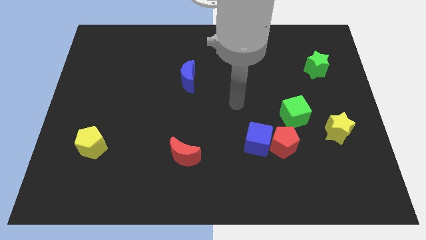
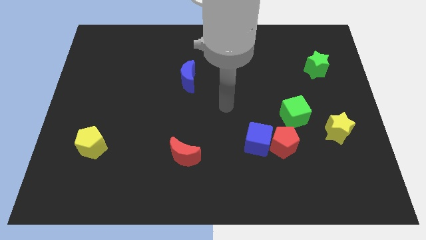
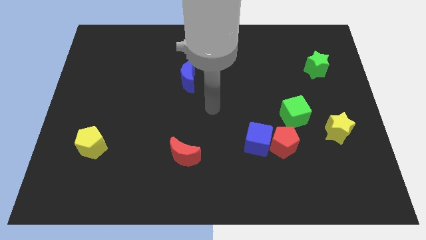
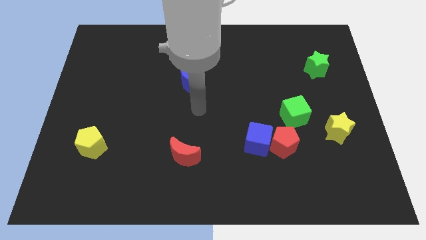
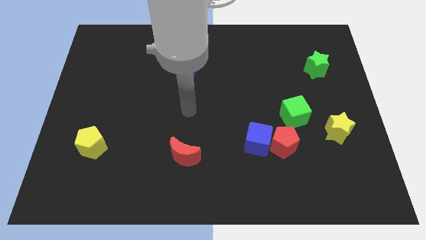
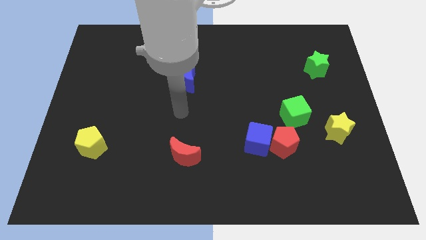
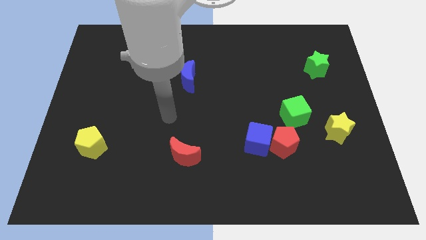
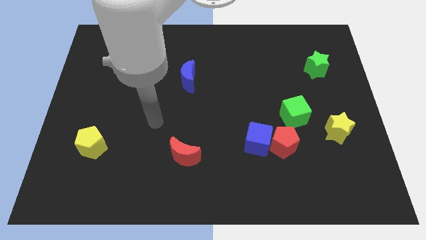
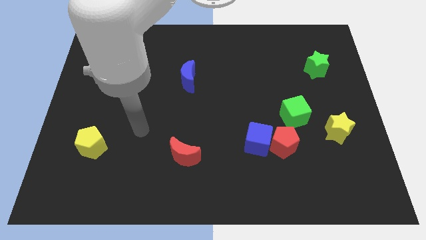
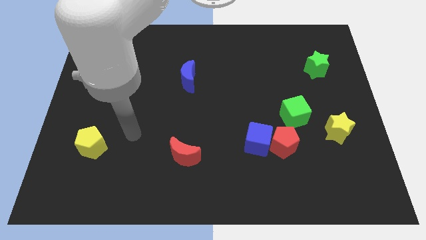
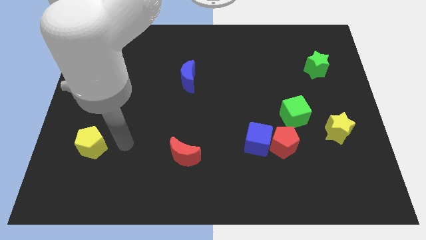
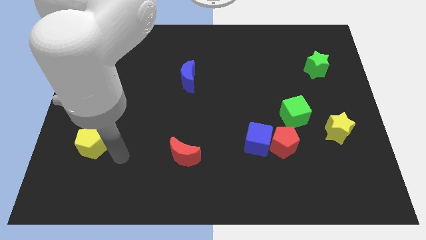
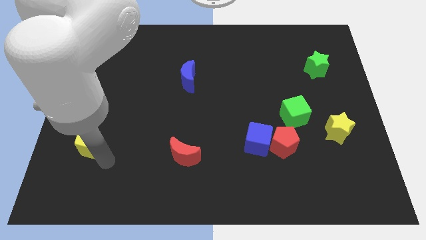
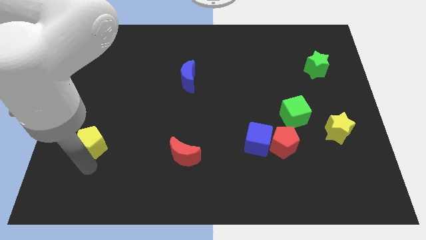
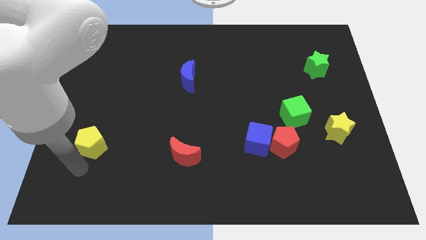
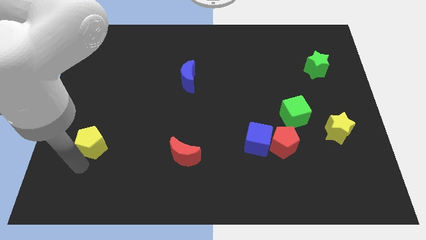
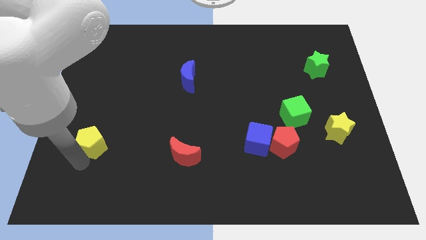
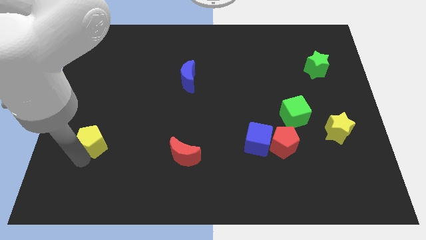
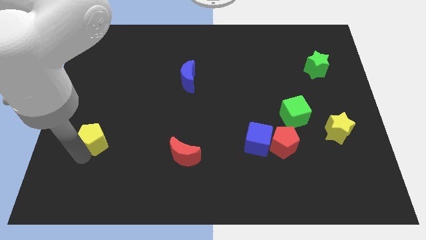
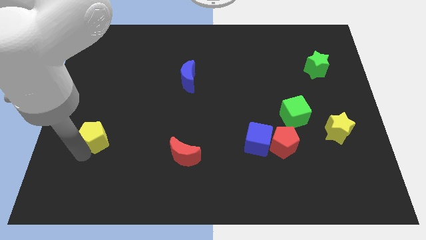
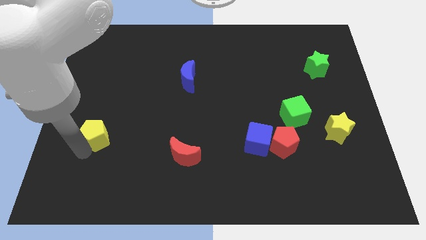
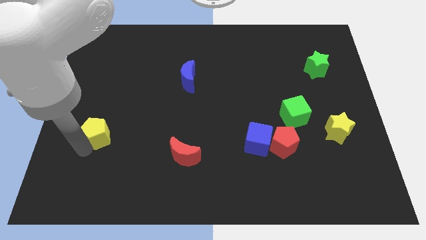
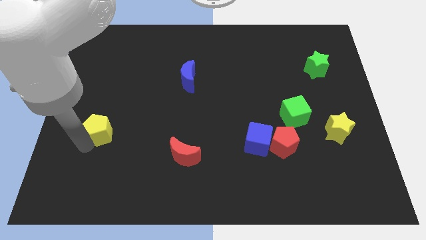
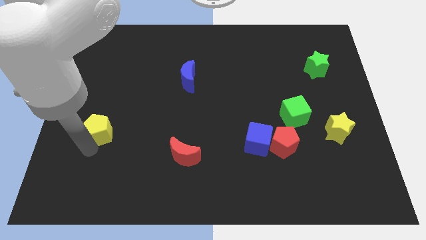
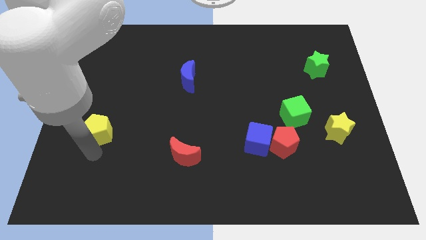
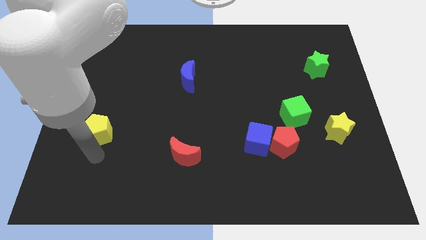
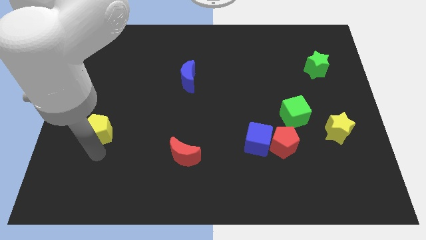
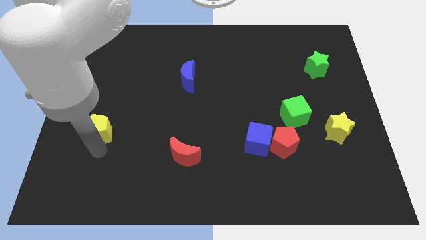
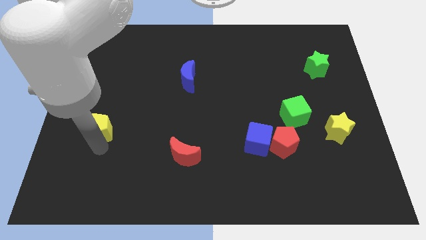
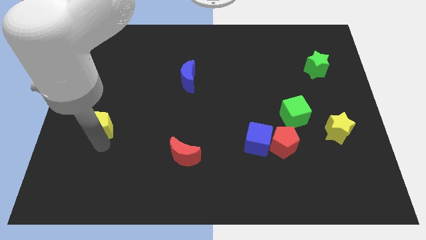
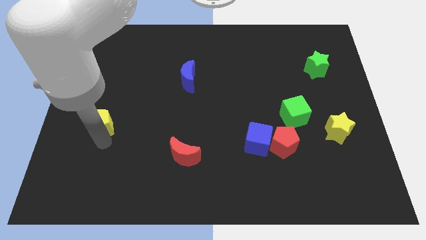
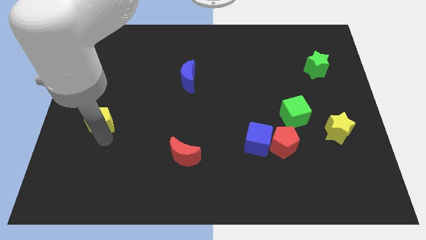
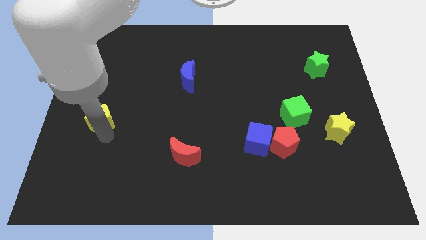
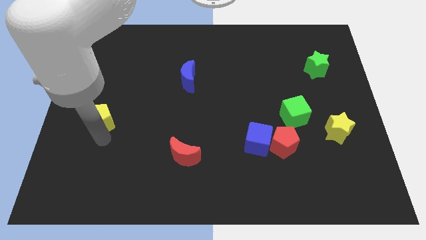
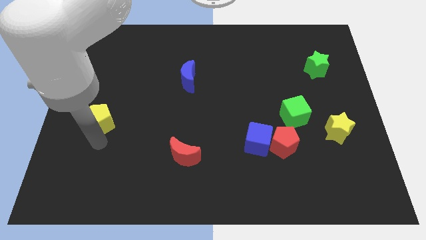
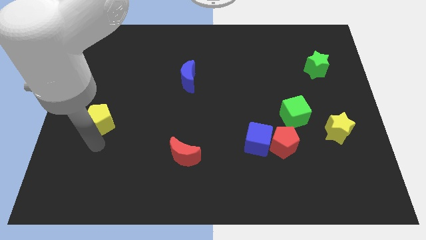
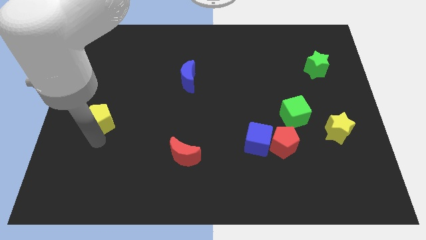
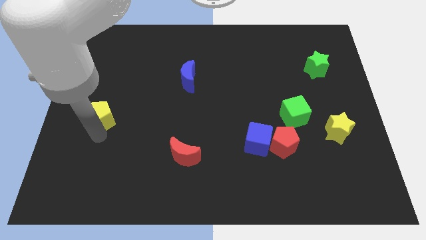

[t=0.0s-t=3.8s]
move the yellow pentagon a little upwards

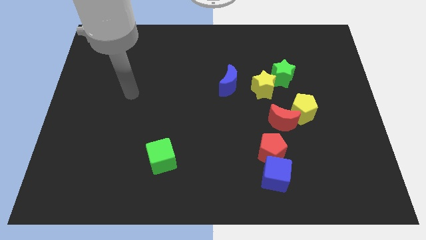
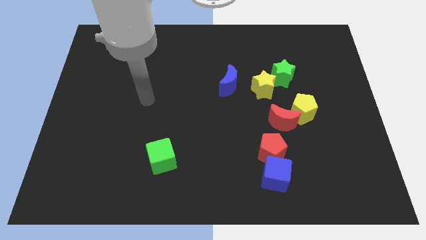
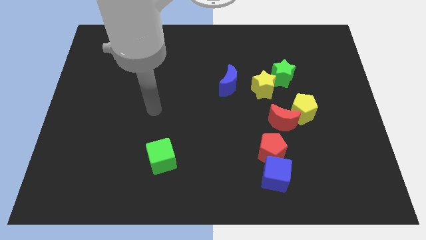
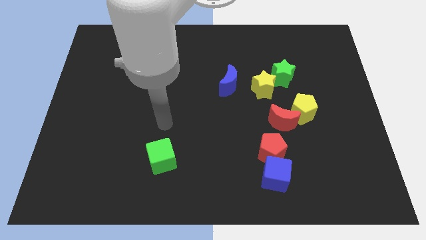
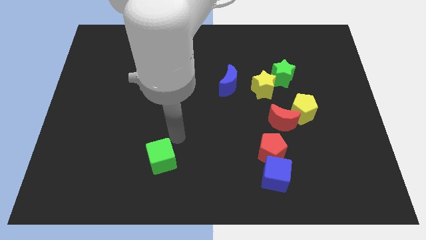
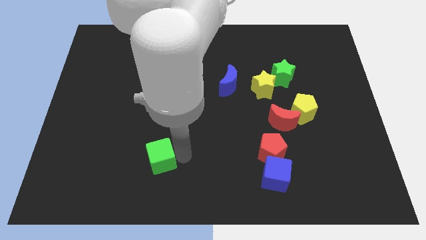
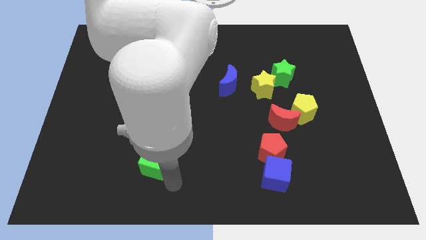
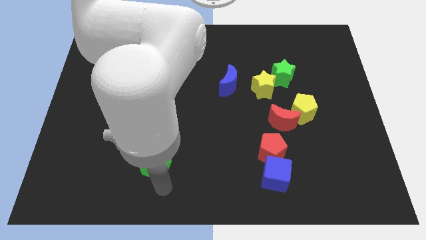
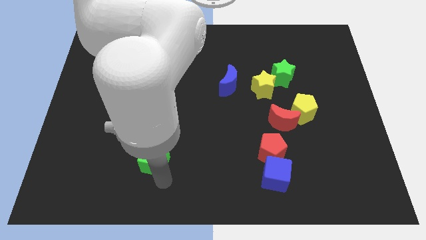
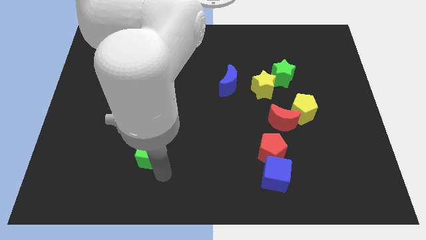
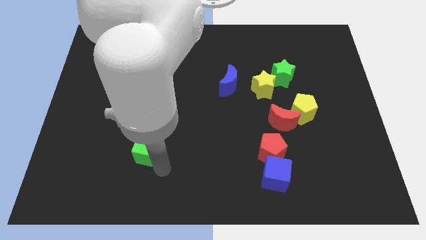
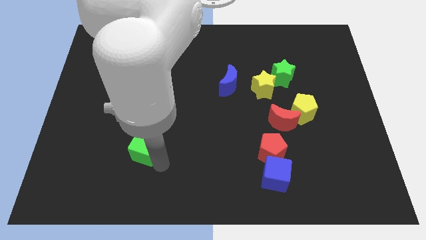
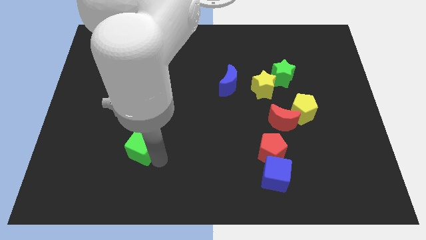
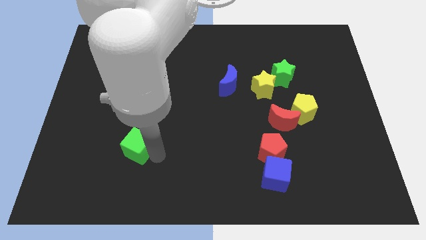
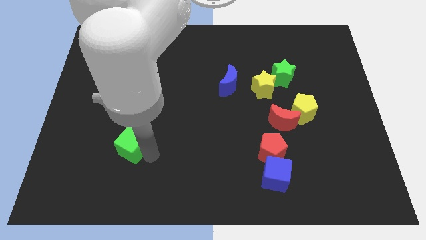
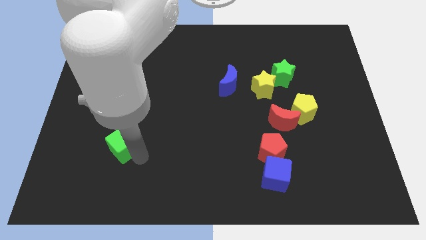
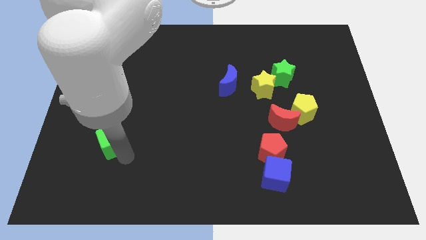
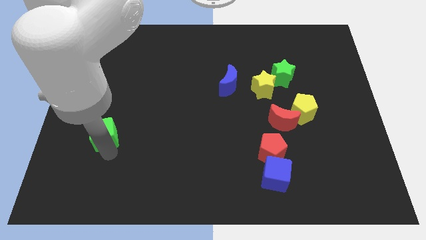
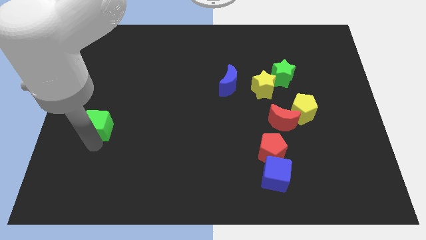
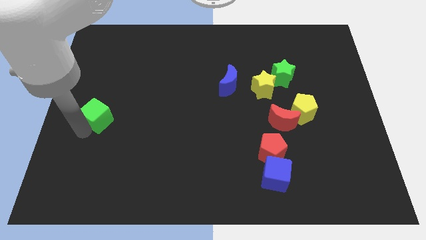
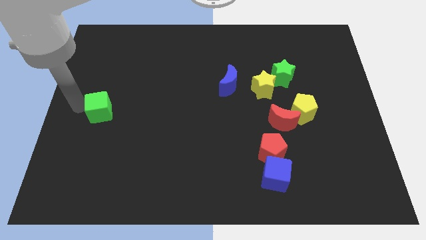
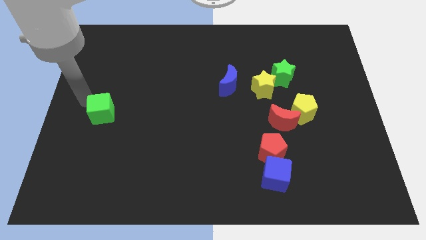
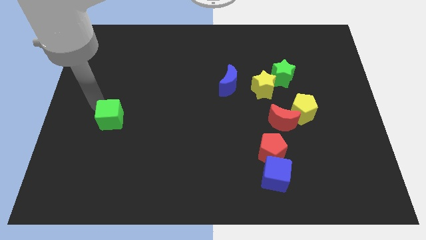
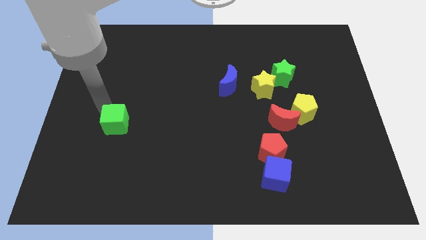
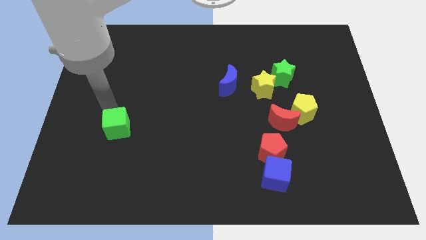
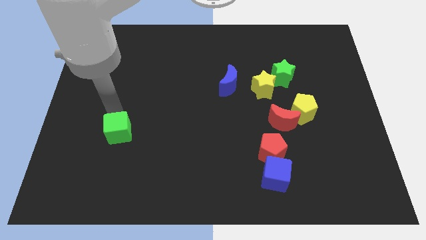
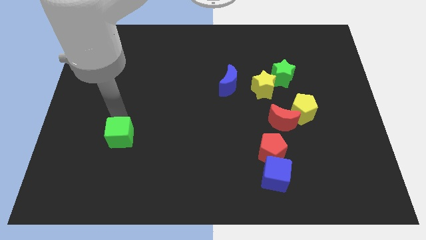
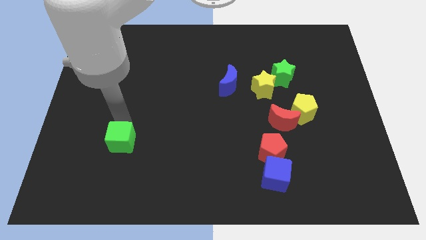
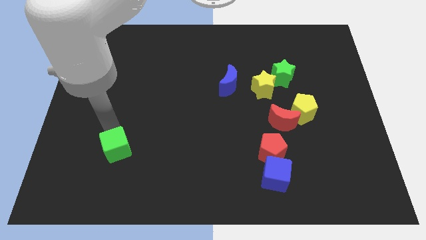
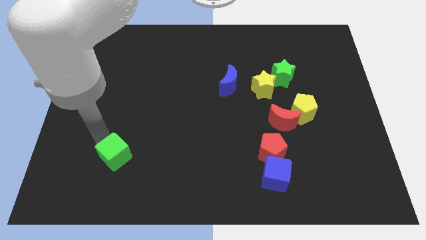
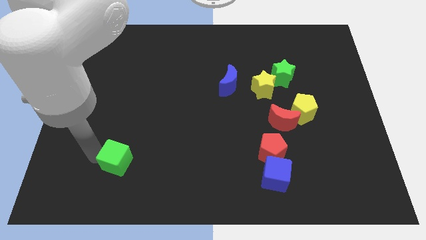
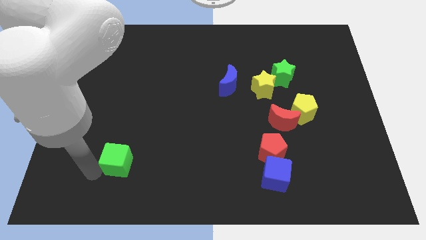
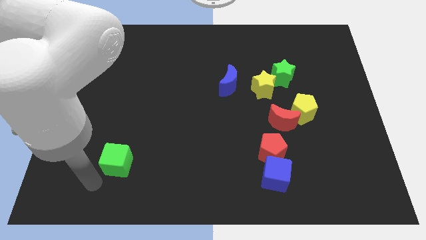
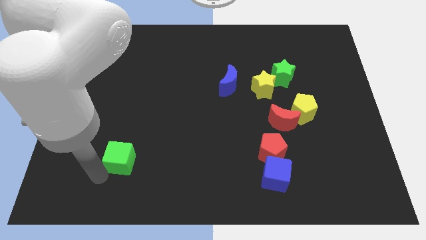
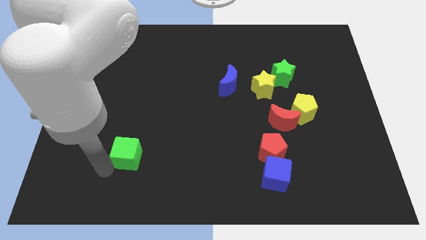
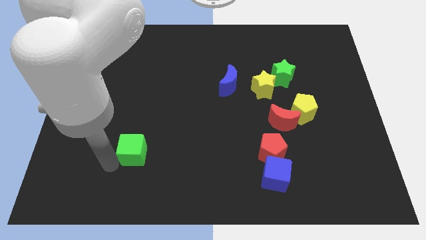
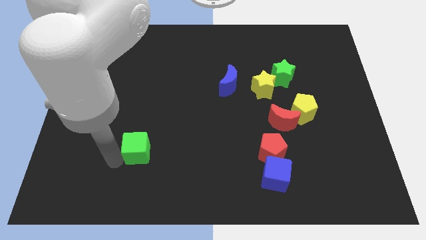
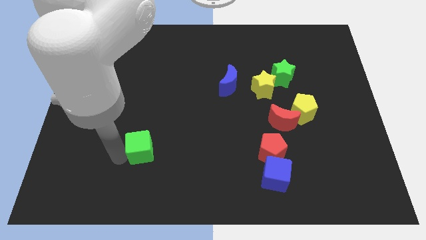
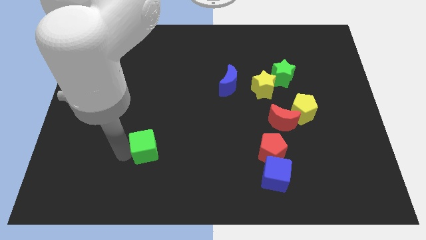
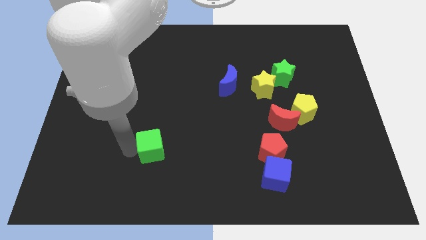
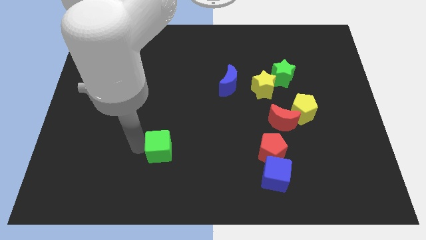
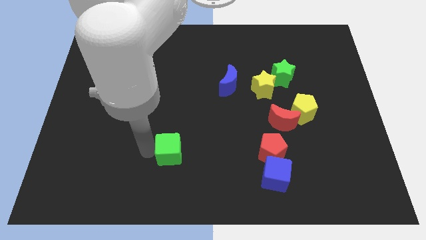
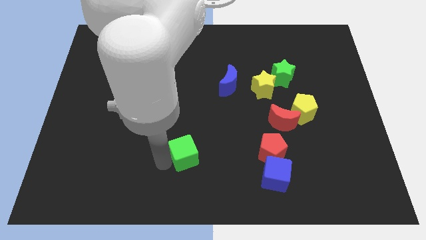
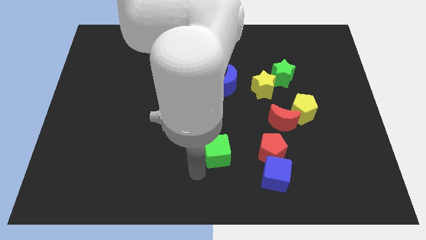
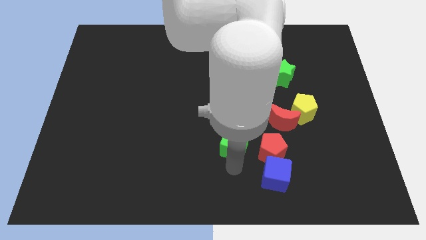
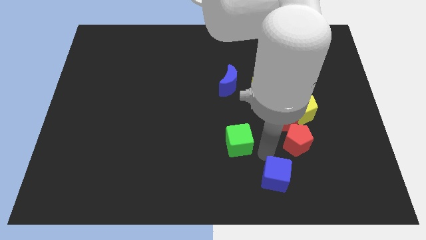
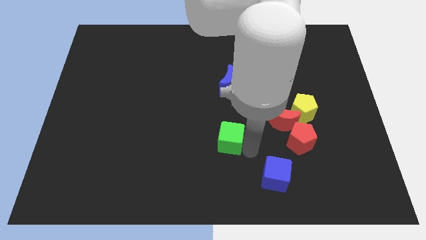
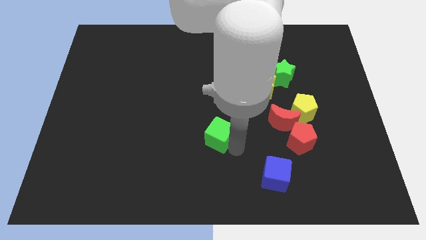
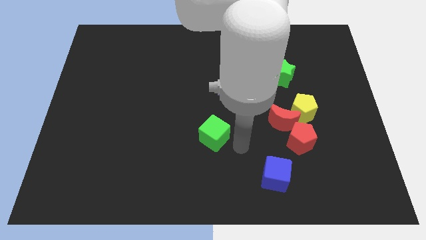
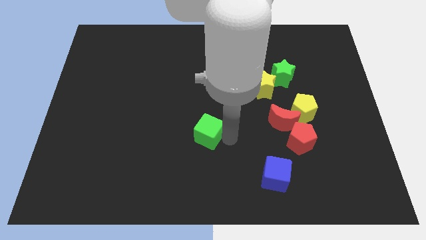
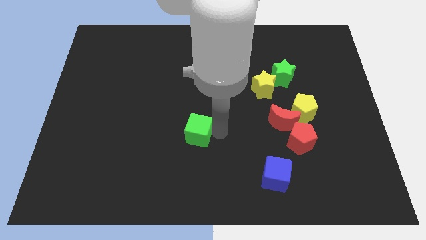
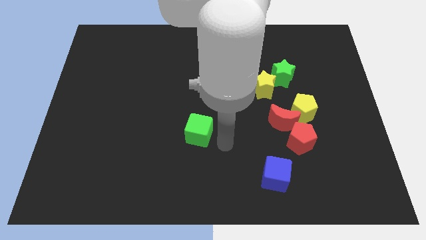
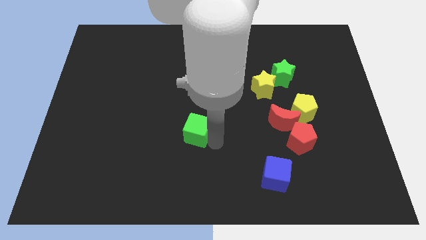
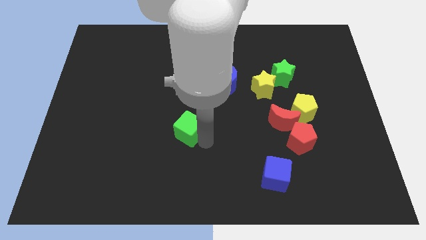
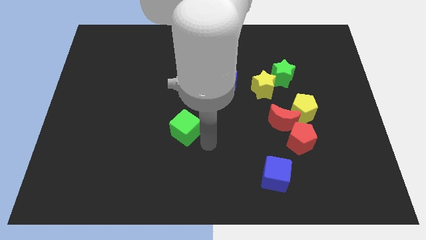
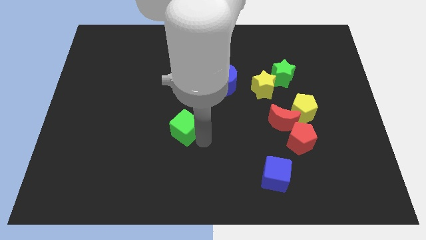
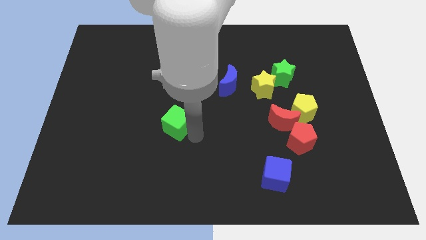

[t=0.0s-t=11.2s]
push the green cube a bit upwards
